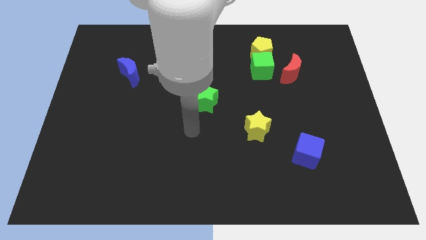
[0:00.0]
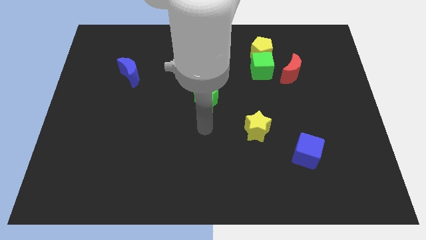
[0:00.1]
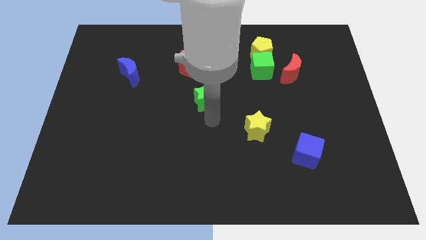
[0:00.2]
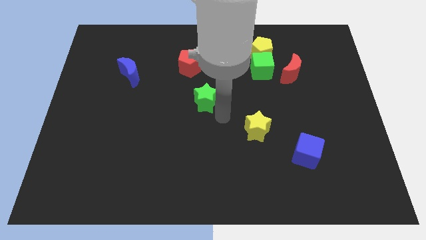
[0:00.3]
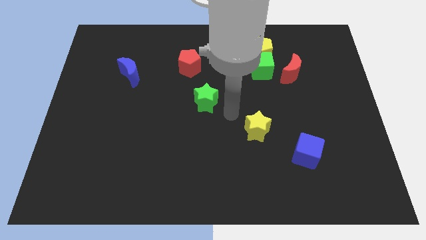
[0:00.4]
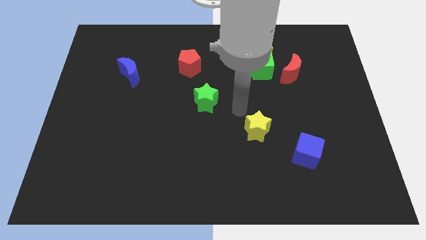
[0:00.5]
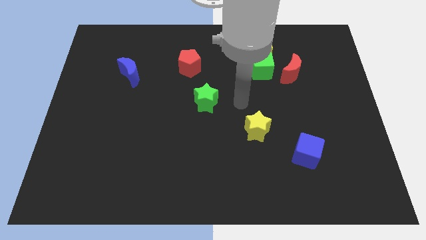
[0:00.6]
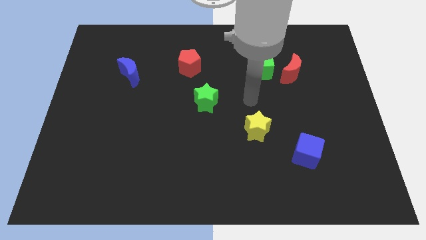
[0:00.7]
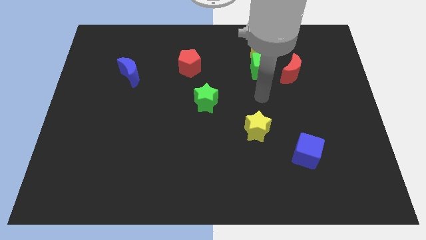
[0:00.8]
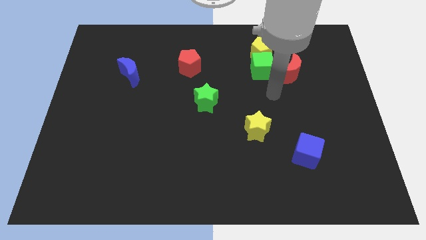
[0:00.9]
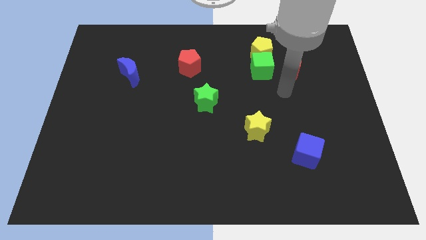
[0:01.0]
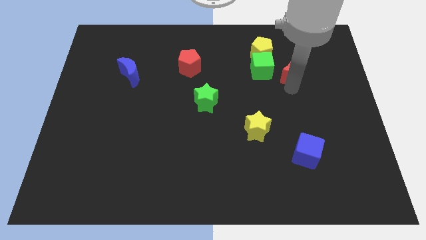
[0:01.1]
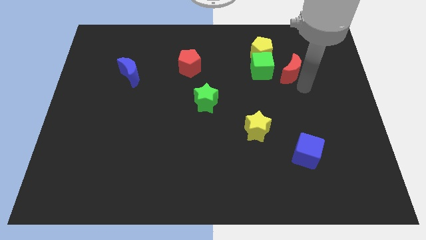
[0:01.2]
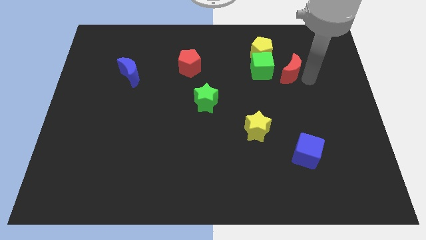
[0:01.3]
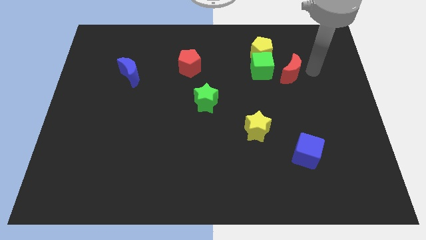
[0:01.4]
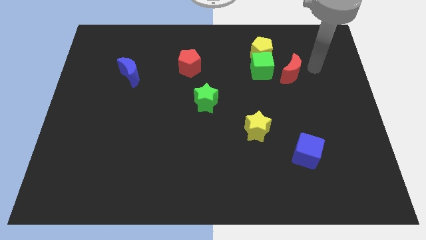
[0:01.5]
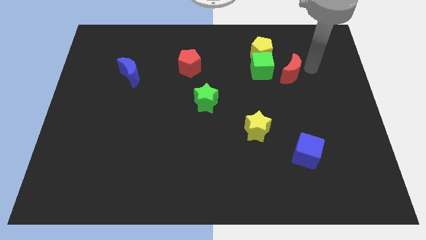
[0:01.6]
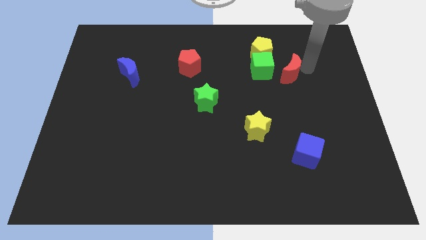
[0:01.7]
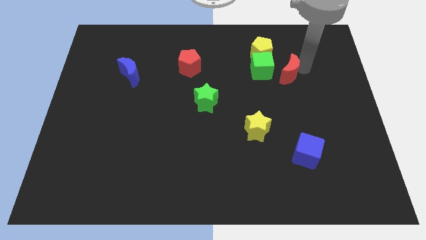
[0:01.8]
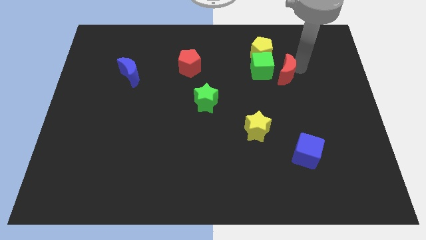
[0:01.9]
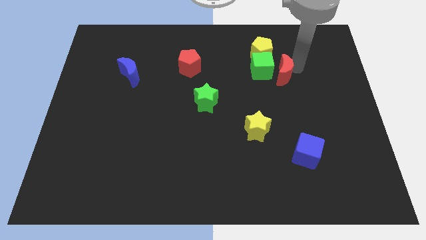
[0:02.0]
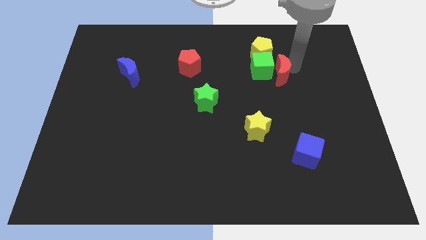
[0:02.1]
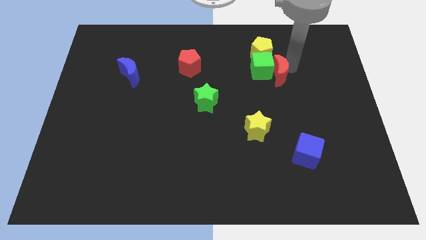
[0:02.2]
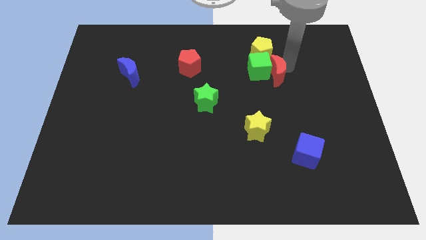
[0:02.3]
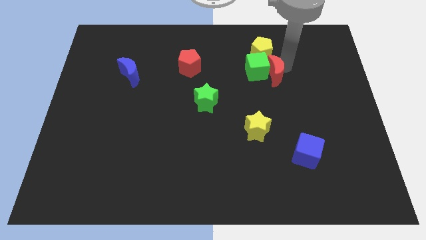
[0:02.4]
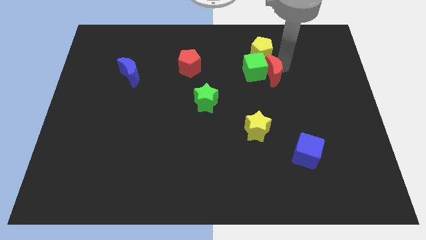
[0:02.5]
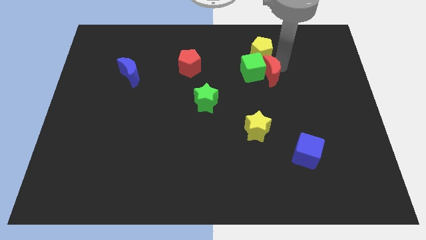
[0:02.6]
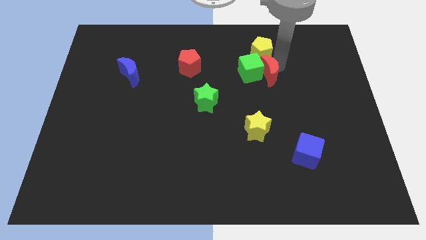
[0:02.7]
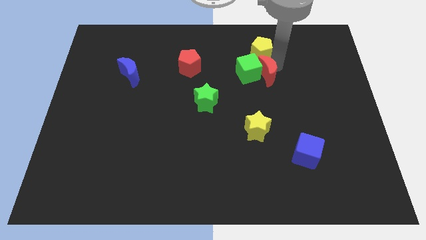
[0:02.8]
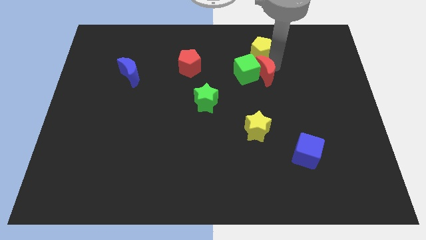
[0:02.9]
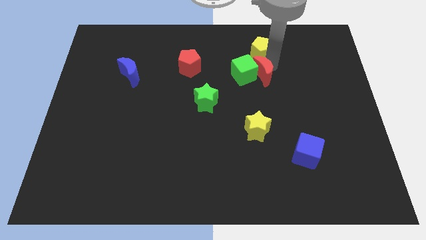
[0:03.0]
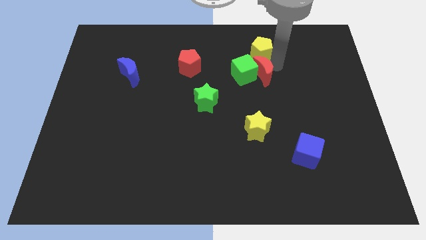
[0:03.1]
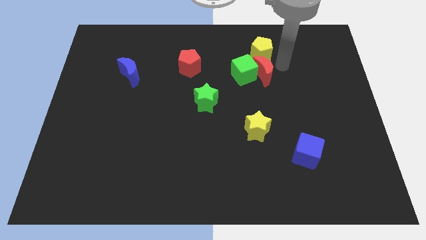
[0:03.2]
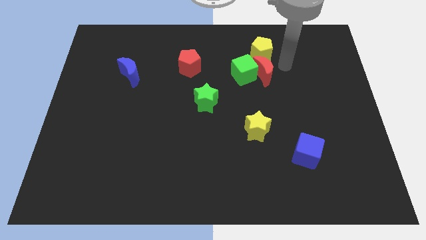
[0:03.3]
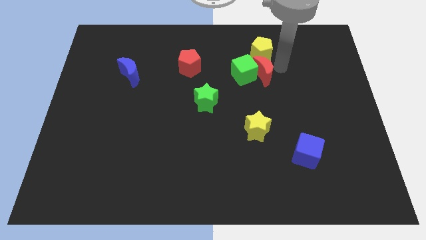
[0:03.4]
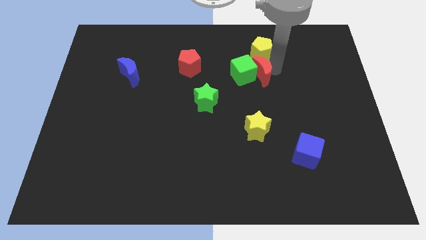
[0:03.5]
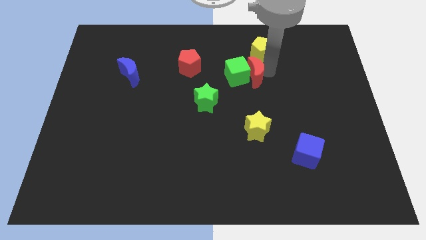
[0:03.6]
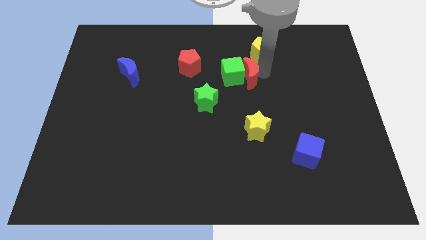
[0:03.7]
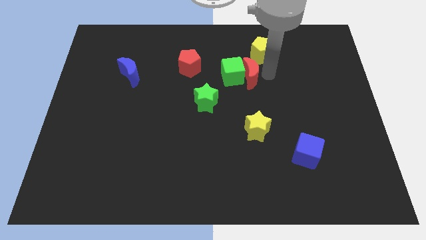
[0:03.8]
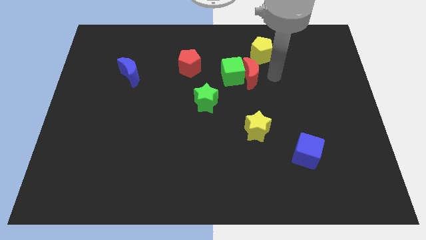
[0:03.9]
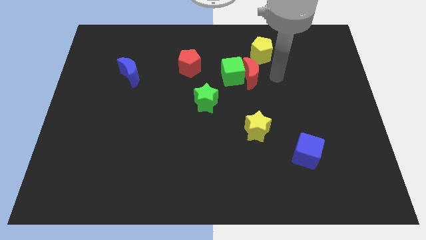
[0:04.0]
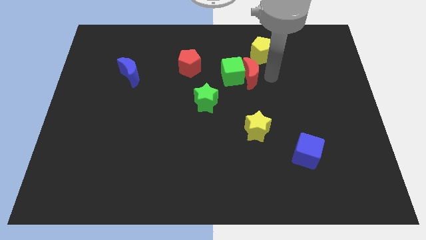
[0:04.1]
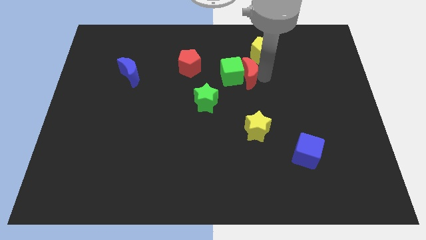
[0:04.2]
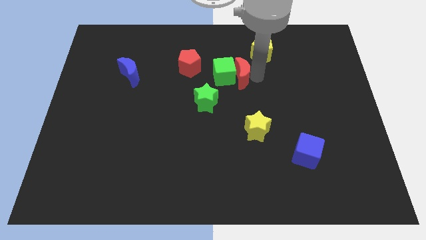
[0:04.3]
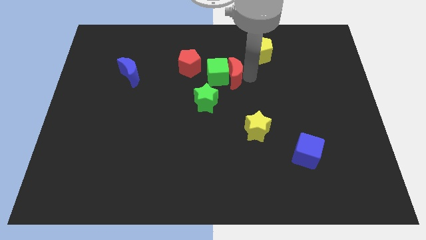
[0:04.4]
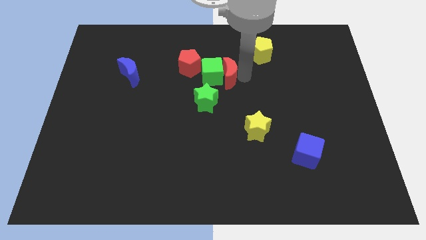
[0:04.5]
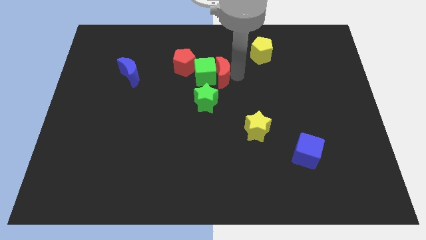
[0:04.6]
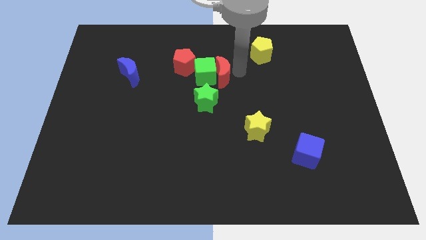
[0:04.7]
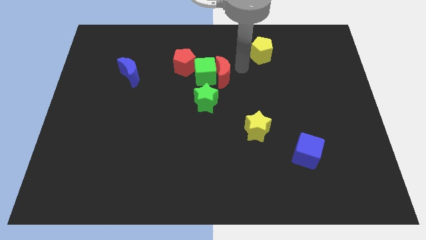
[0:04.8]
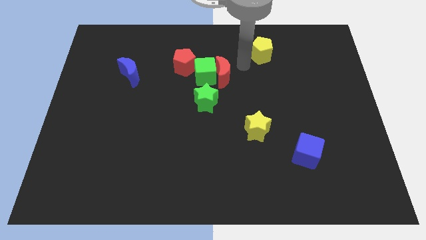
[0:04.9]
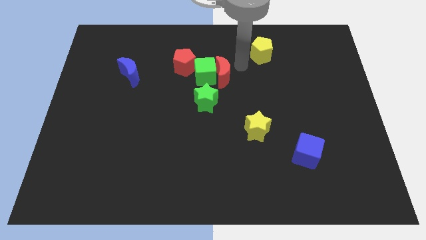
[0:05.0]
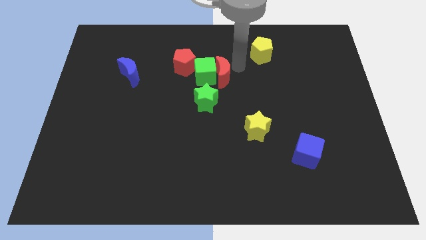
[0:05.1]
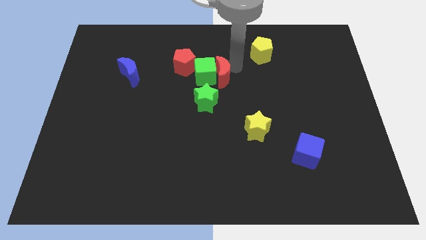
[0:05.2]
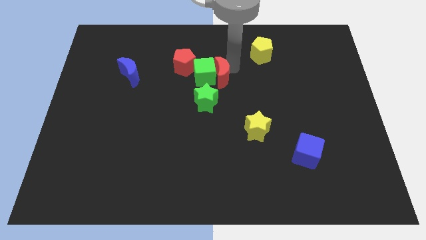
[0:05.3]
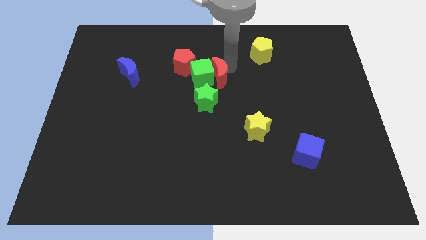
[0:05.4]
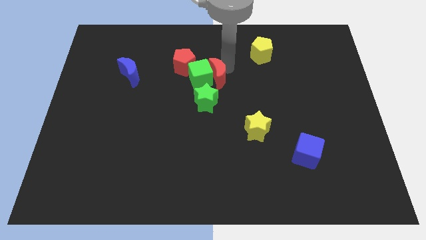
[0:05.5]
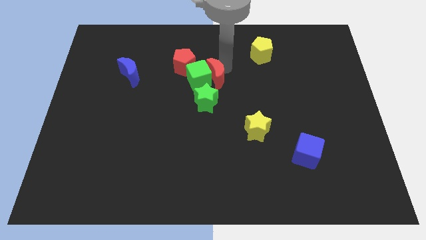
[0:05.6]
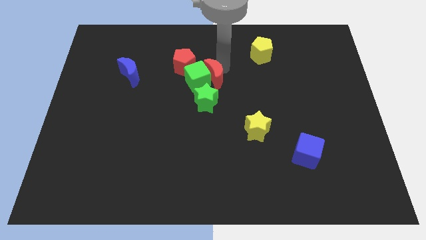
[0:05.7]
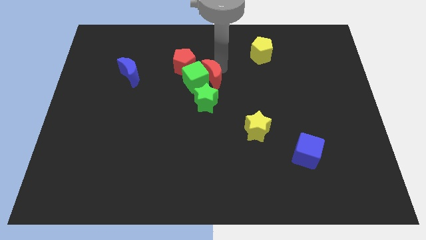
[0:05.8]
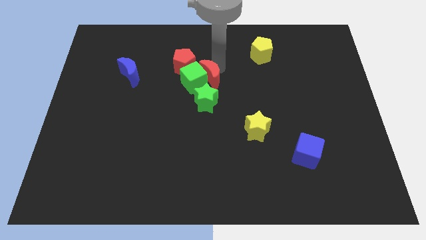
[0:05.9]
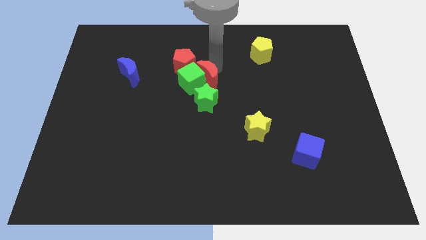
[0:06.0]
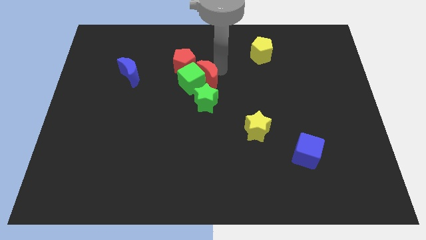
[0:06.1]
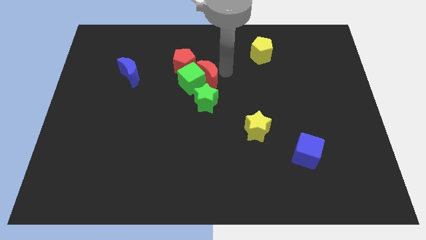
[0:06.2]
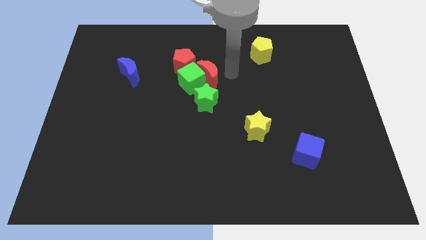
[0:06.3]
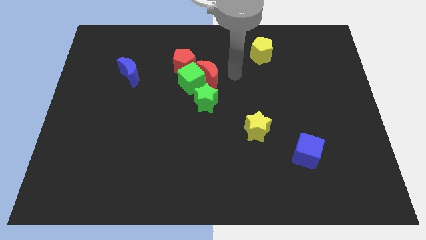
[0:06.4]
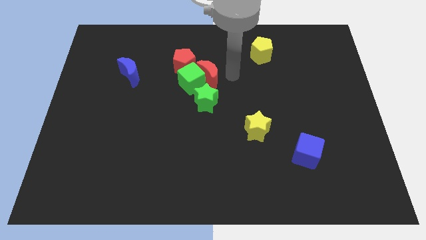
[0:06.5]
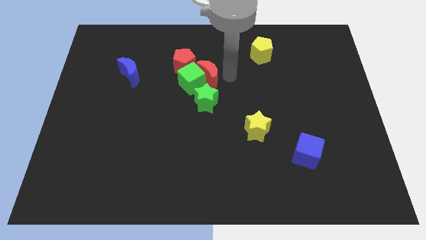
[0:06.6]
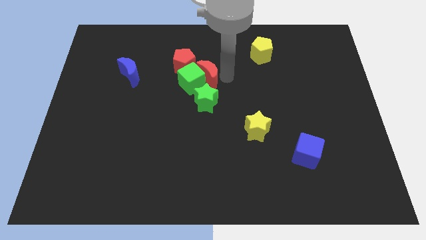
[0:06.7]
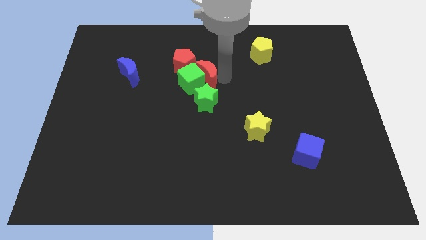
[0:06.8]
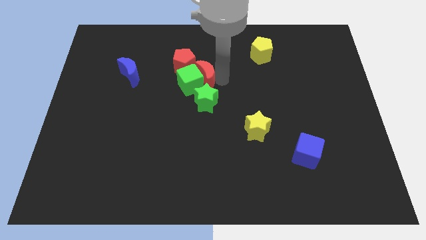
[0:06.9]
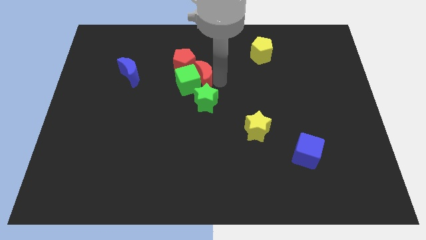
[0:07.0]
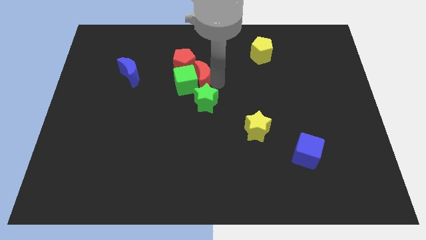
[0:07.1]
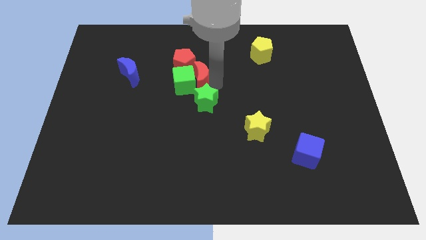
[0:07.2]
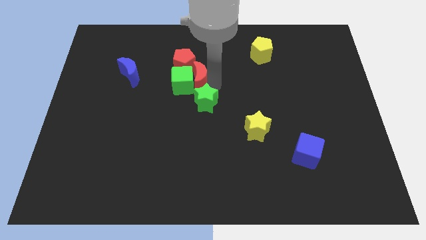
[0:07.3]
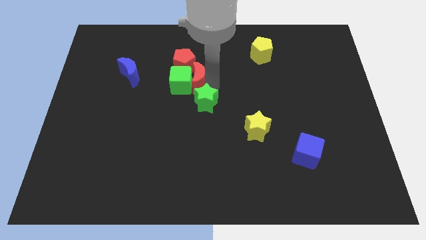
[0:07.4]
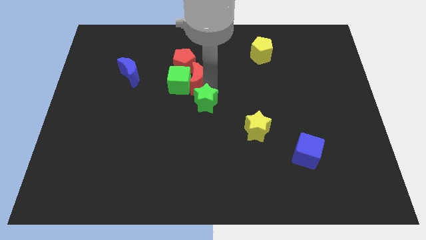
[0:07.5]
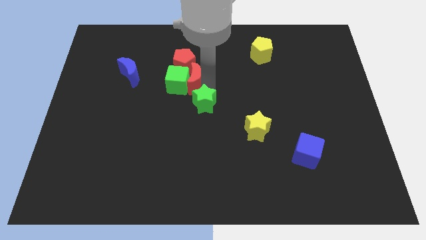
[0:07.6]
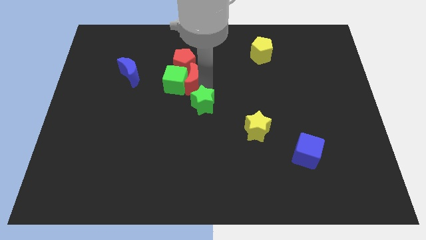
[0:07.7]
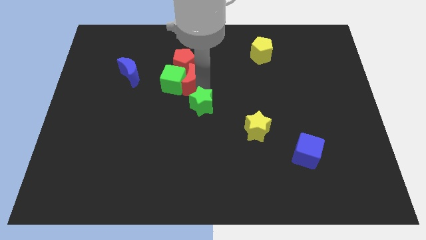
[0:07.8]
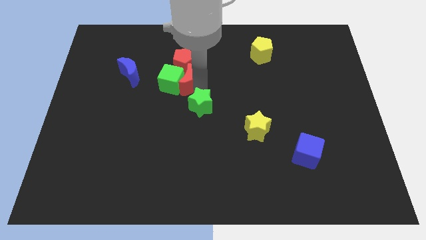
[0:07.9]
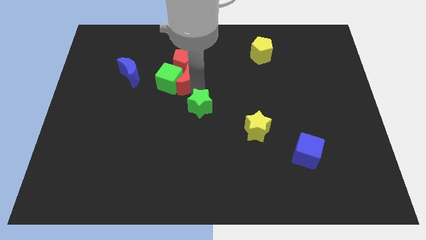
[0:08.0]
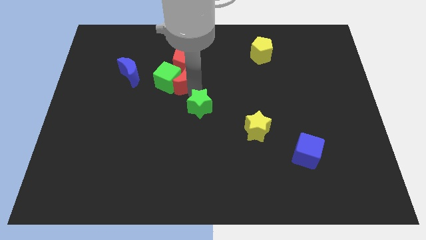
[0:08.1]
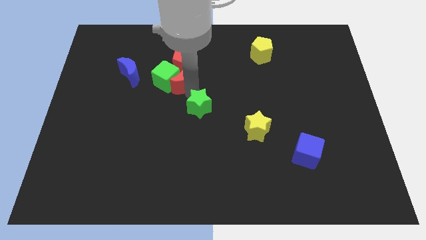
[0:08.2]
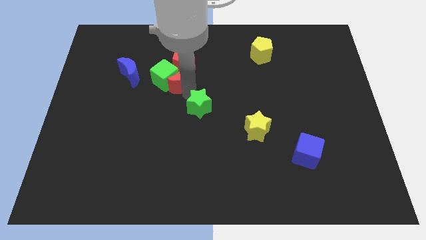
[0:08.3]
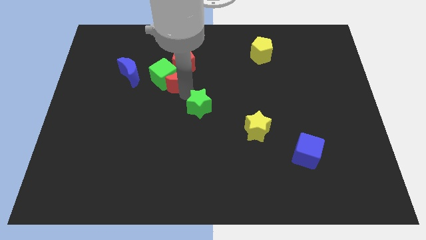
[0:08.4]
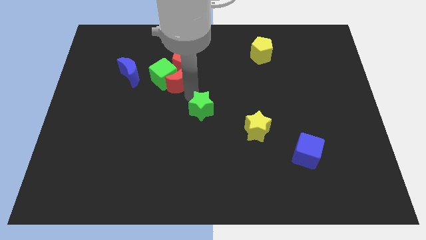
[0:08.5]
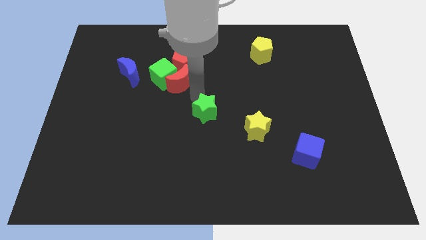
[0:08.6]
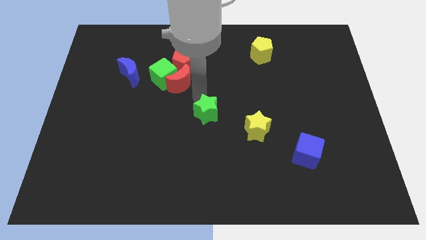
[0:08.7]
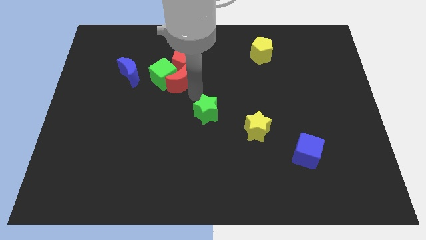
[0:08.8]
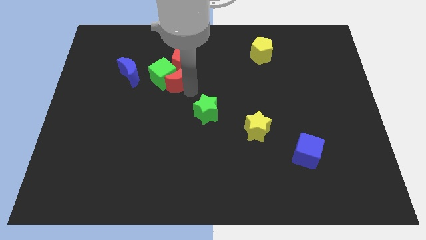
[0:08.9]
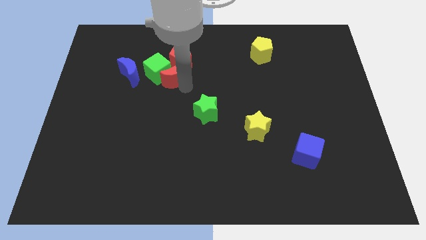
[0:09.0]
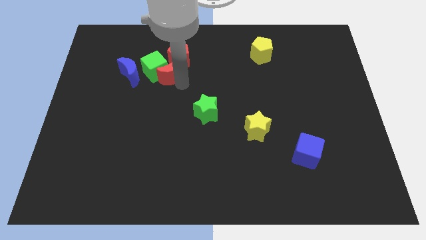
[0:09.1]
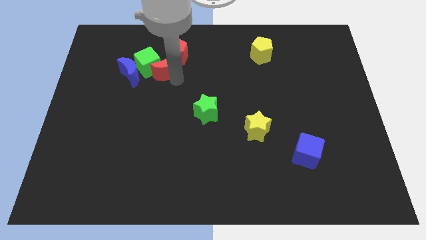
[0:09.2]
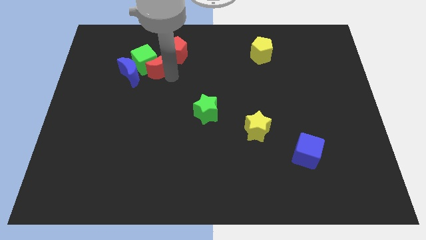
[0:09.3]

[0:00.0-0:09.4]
move the red moon diagonally up and to the right of the blue moon
